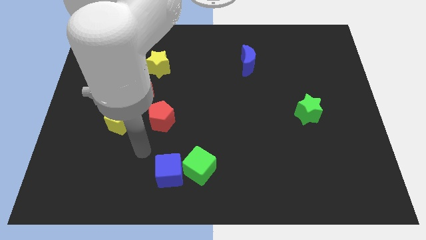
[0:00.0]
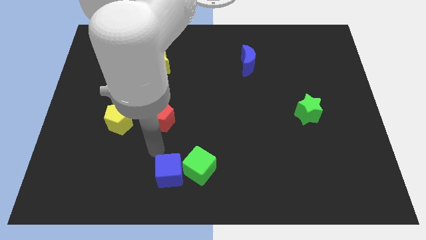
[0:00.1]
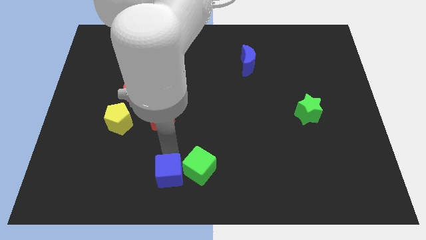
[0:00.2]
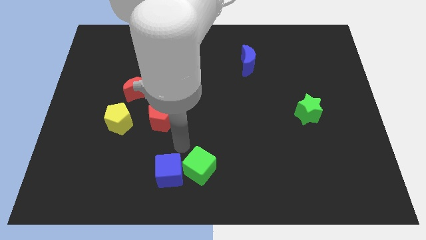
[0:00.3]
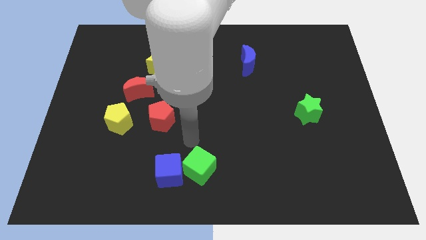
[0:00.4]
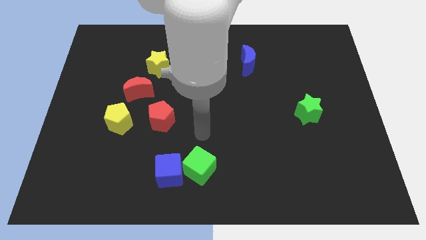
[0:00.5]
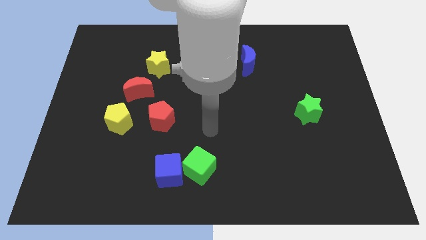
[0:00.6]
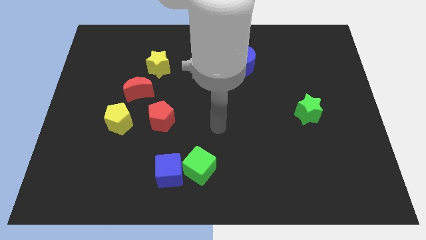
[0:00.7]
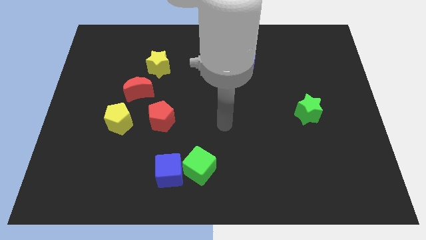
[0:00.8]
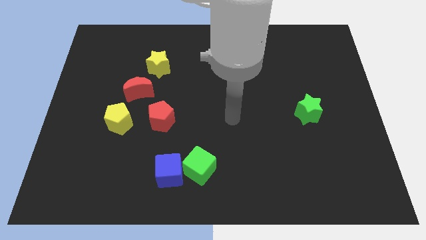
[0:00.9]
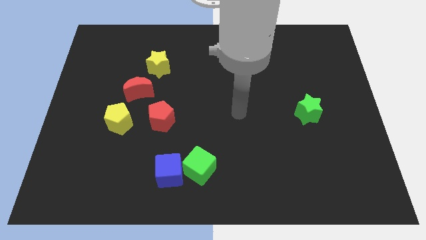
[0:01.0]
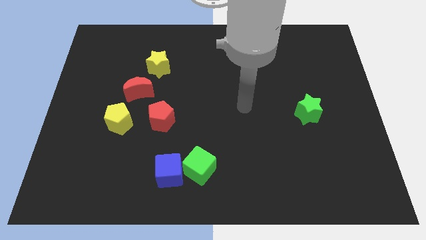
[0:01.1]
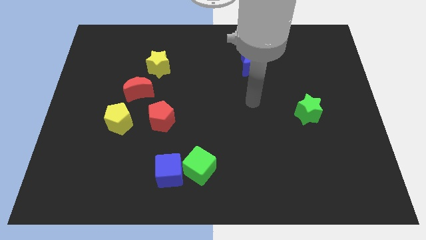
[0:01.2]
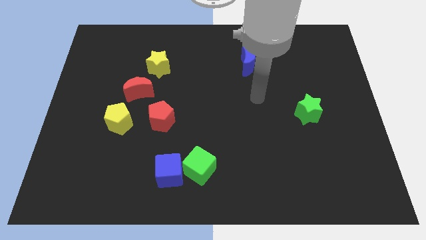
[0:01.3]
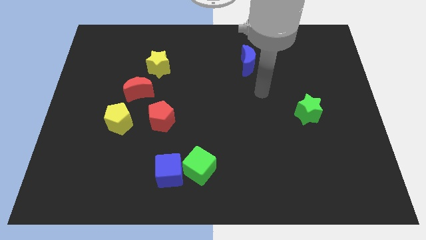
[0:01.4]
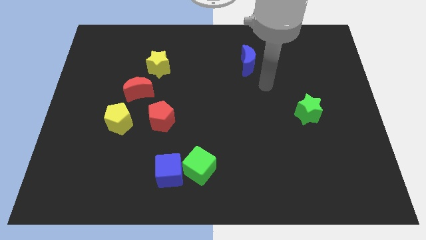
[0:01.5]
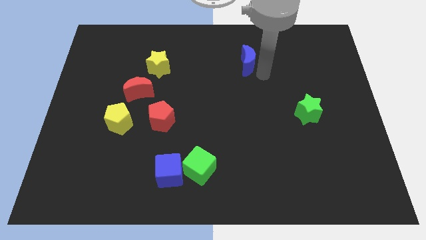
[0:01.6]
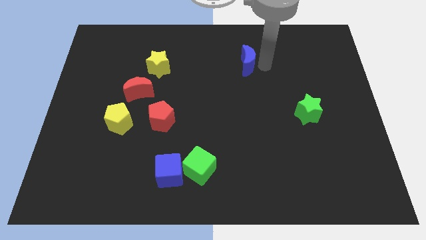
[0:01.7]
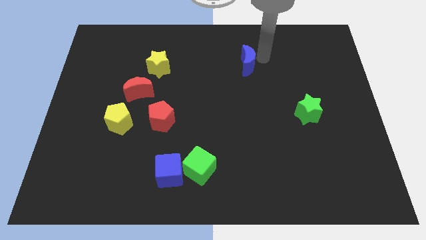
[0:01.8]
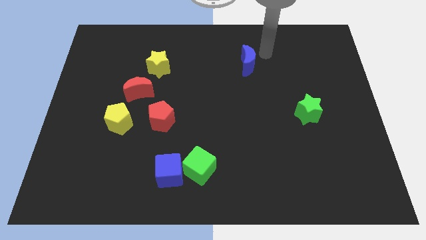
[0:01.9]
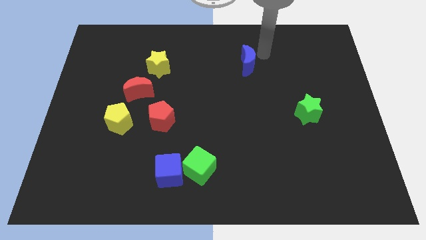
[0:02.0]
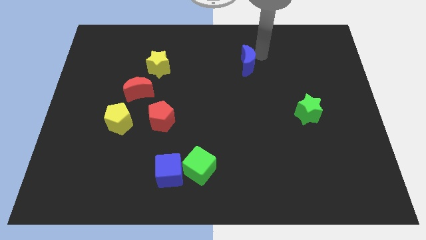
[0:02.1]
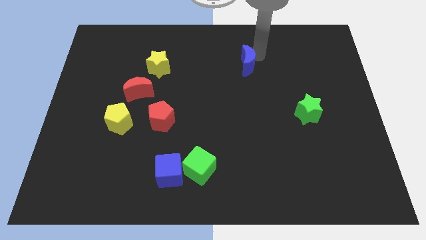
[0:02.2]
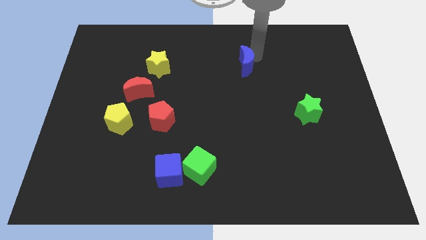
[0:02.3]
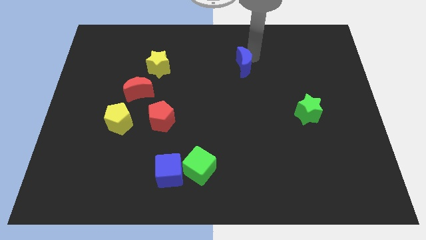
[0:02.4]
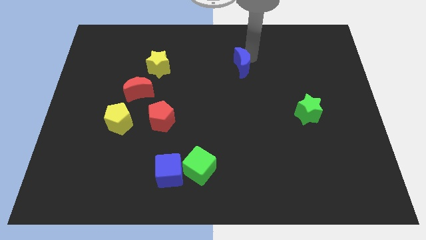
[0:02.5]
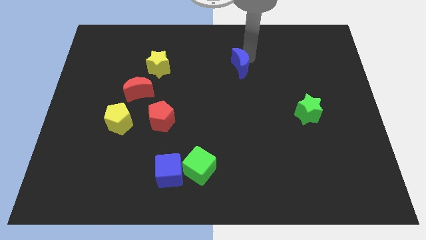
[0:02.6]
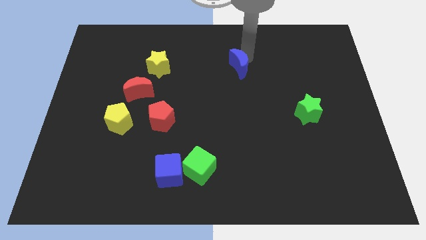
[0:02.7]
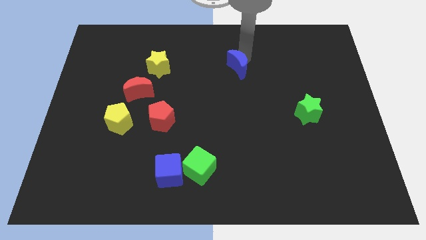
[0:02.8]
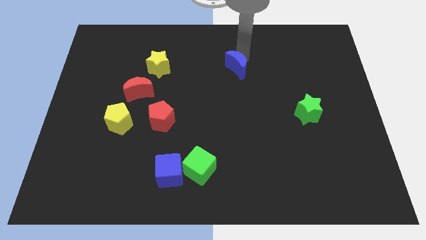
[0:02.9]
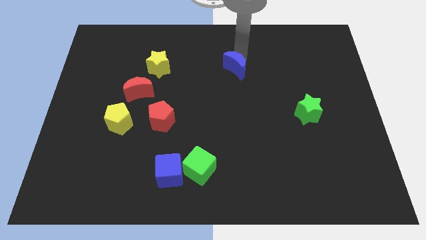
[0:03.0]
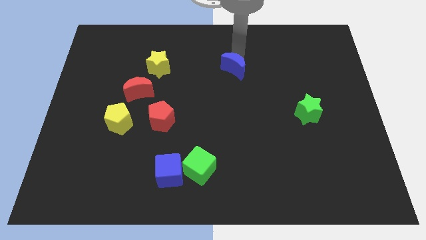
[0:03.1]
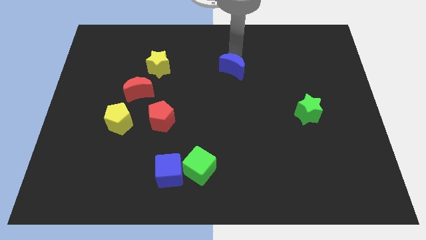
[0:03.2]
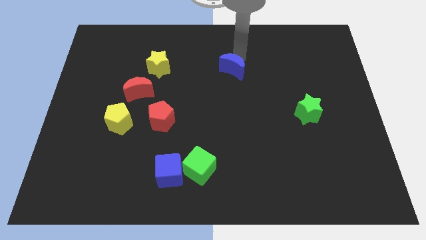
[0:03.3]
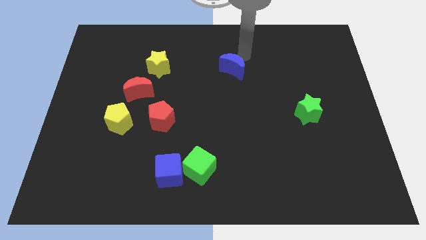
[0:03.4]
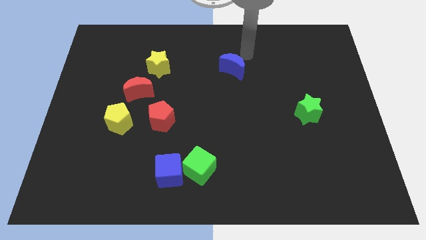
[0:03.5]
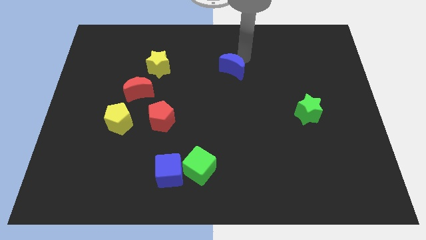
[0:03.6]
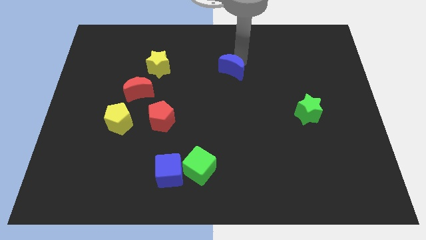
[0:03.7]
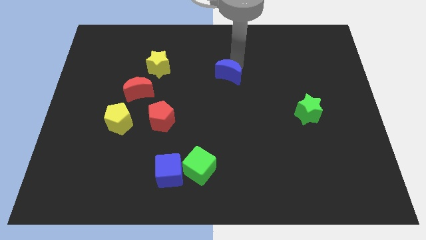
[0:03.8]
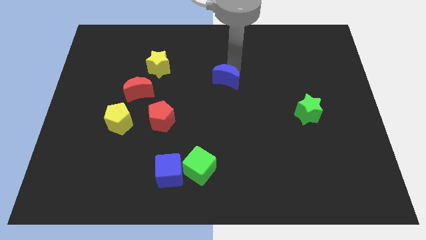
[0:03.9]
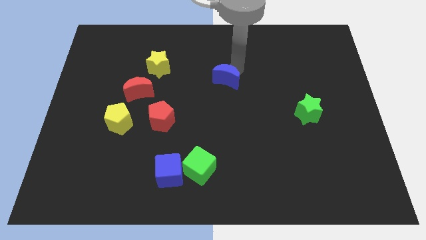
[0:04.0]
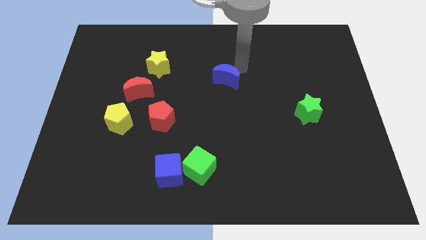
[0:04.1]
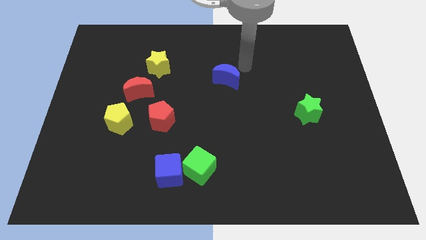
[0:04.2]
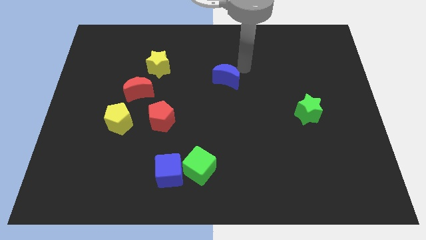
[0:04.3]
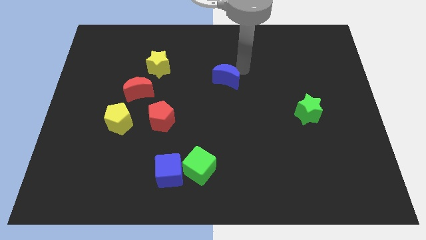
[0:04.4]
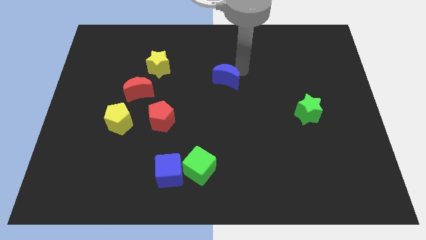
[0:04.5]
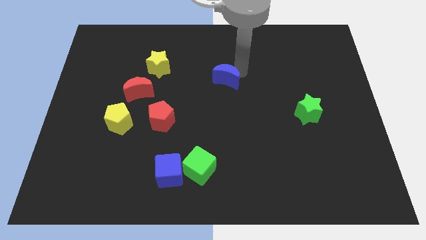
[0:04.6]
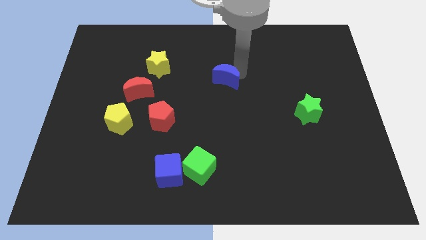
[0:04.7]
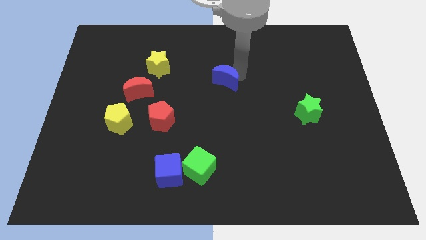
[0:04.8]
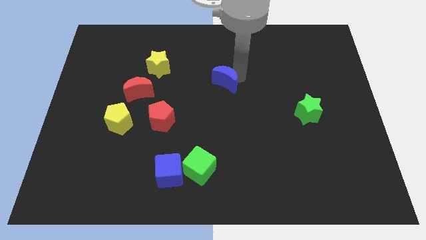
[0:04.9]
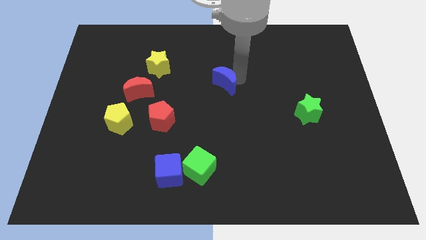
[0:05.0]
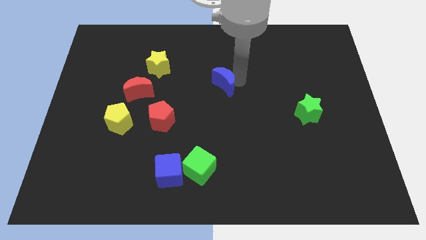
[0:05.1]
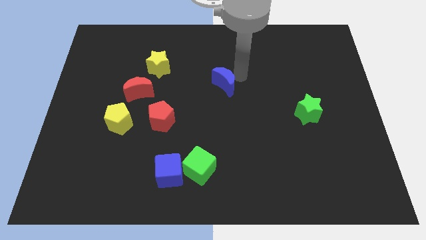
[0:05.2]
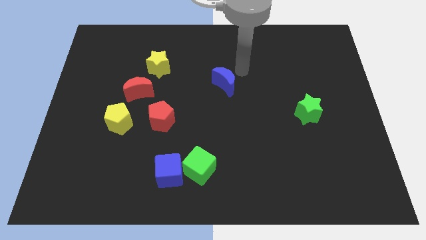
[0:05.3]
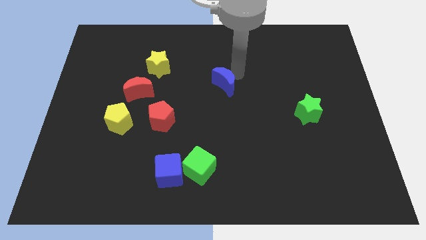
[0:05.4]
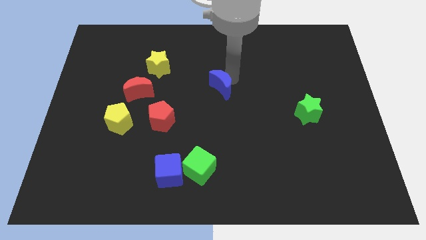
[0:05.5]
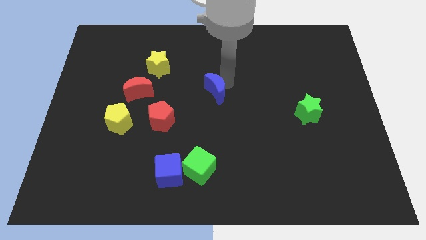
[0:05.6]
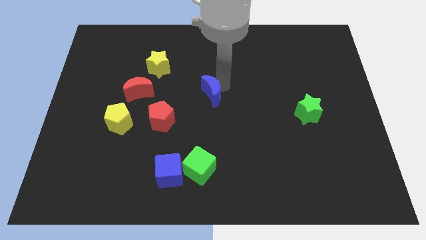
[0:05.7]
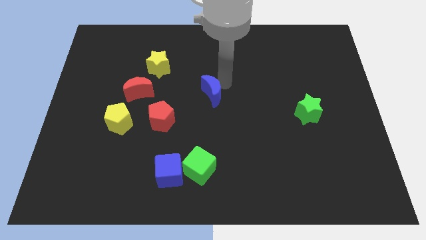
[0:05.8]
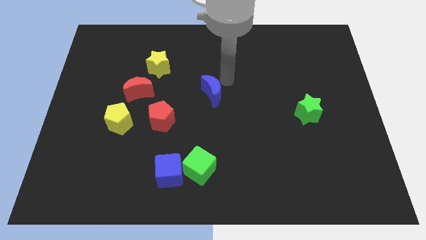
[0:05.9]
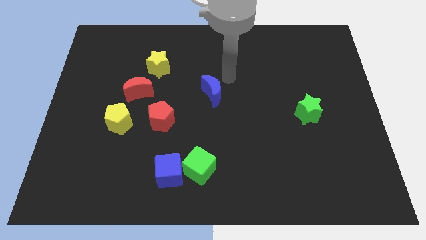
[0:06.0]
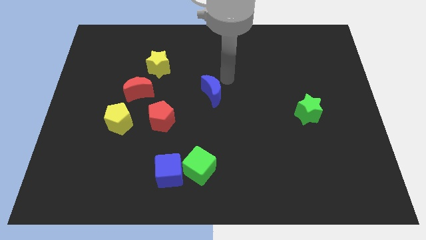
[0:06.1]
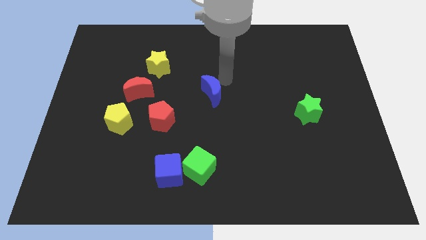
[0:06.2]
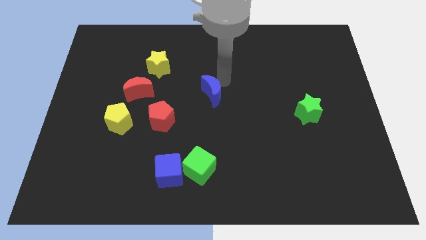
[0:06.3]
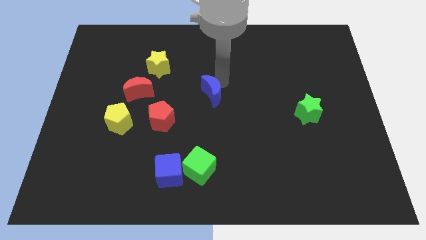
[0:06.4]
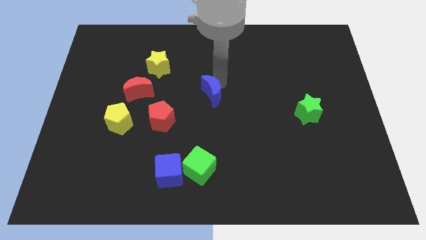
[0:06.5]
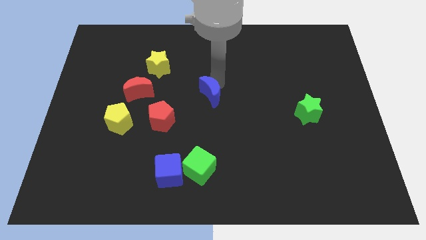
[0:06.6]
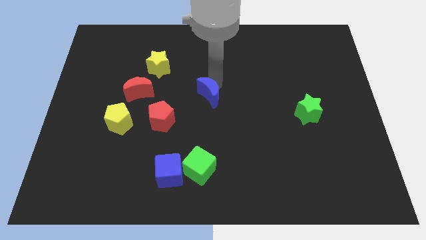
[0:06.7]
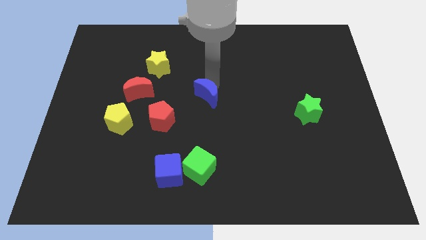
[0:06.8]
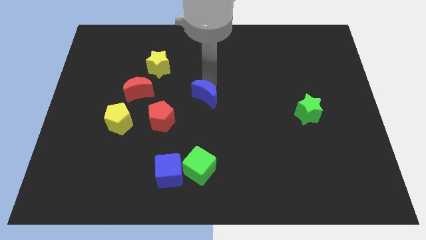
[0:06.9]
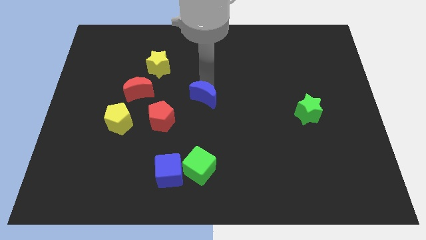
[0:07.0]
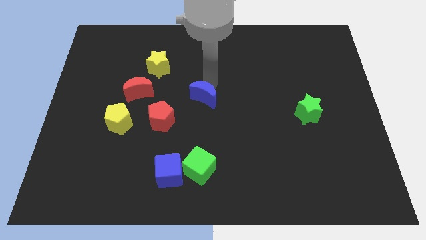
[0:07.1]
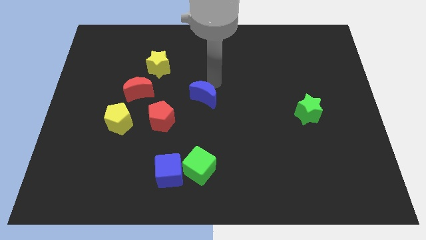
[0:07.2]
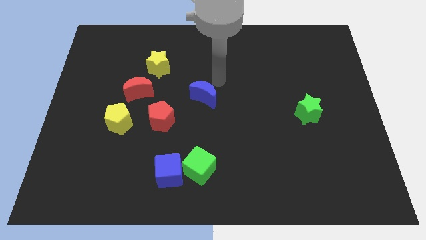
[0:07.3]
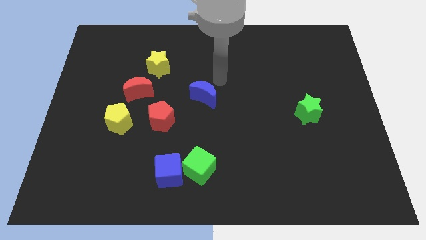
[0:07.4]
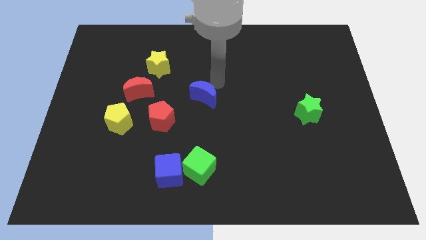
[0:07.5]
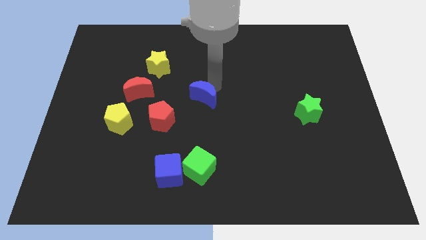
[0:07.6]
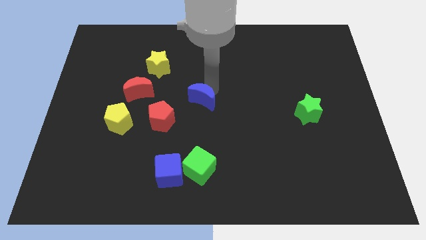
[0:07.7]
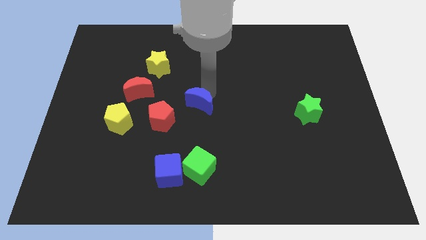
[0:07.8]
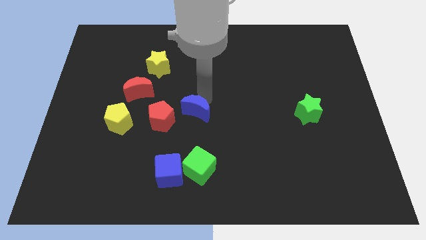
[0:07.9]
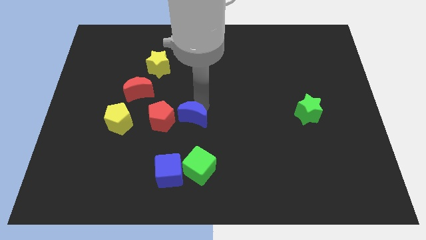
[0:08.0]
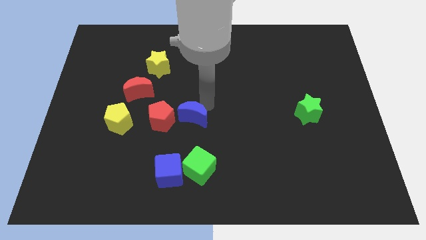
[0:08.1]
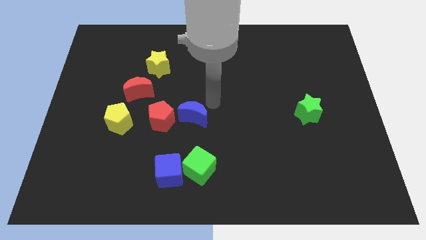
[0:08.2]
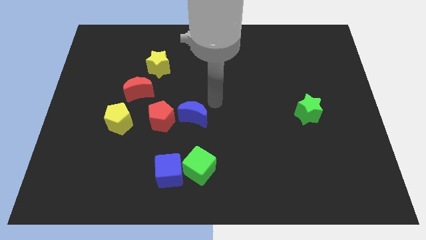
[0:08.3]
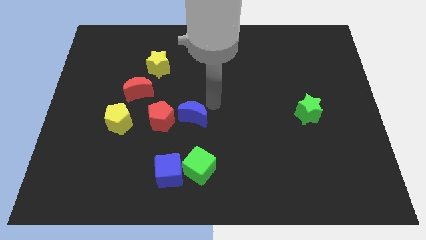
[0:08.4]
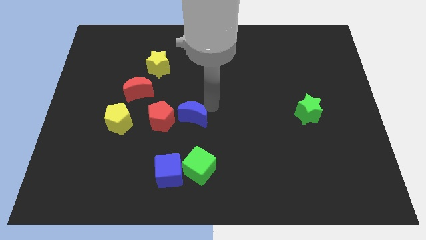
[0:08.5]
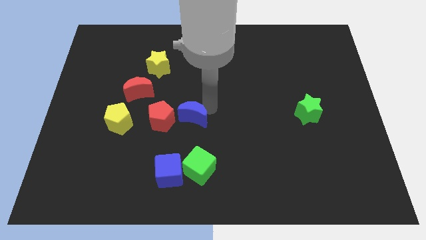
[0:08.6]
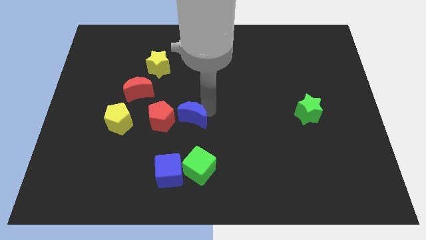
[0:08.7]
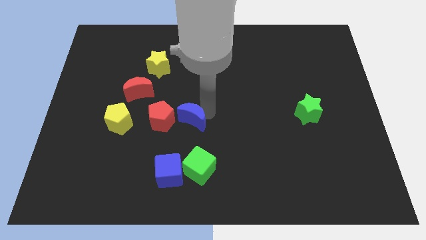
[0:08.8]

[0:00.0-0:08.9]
push the blue moon above the blue cube
